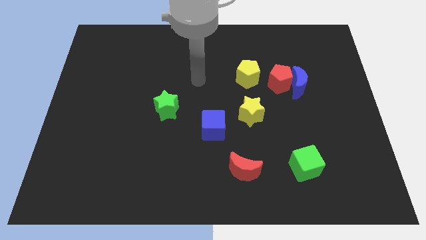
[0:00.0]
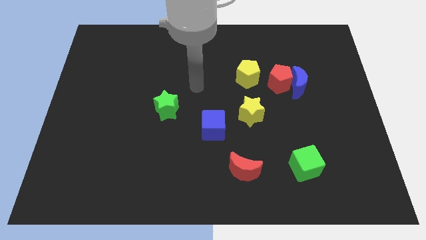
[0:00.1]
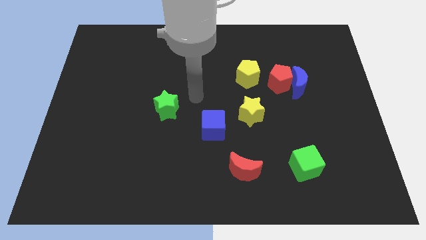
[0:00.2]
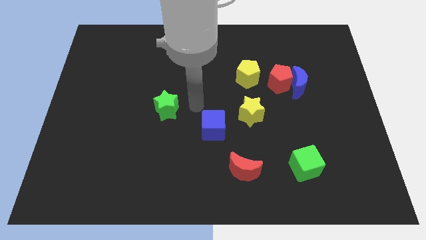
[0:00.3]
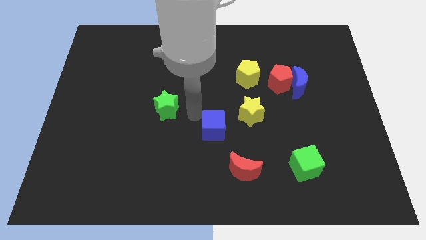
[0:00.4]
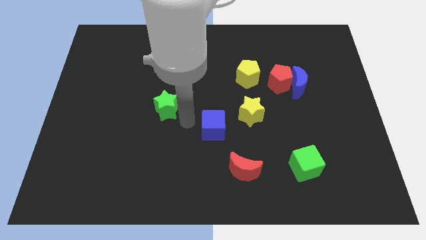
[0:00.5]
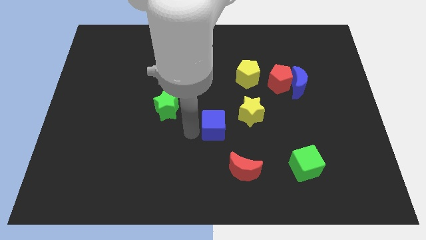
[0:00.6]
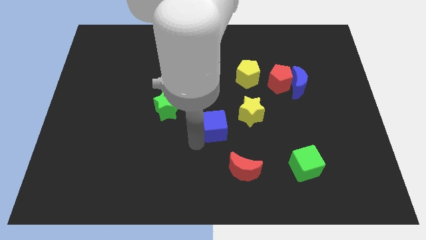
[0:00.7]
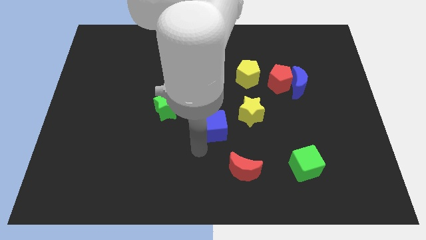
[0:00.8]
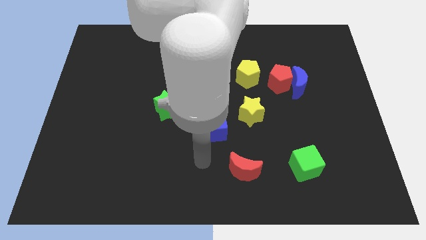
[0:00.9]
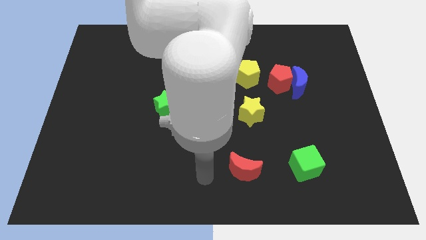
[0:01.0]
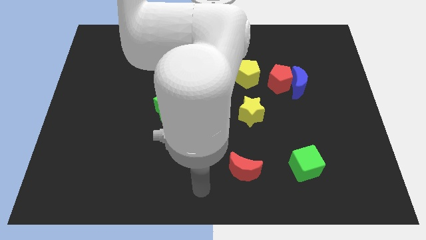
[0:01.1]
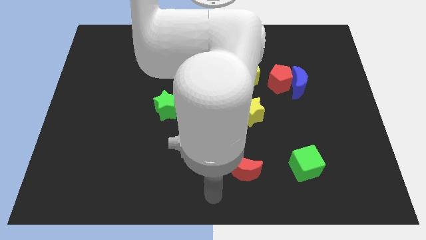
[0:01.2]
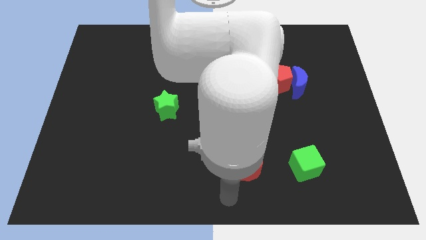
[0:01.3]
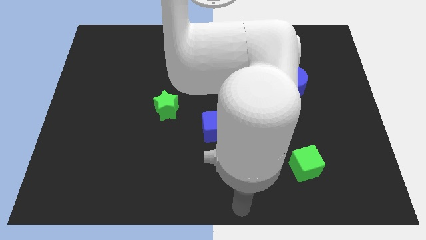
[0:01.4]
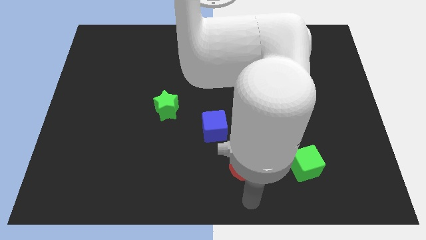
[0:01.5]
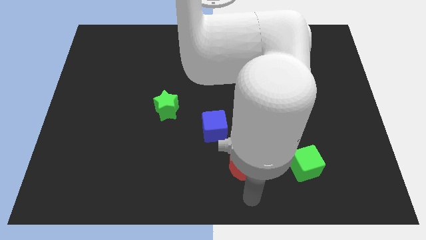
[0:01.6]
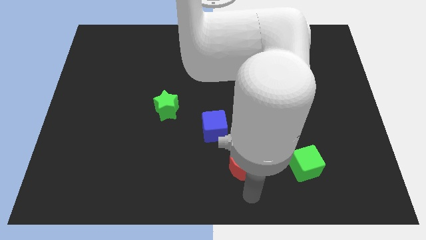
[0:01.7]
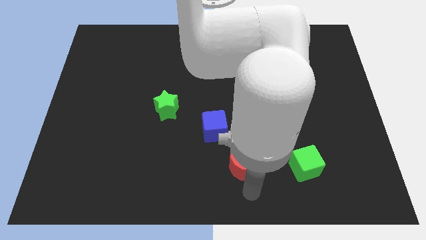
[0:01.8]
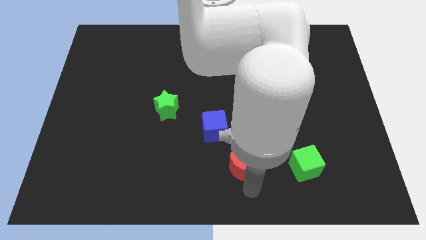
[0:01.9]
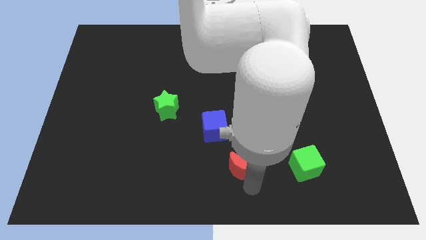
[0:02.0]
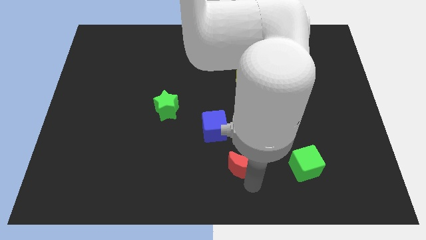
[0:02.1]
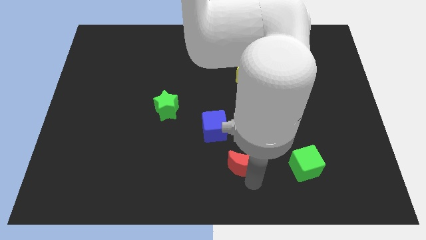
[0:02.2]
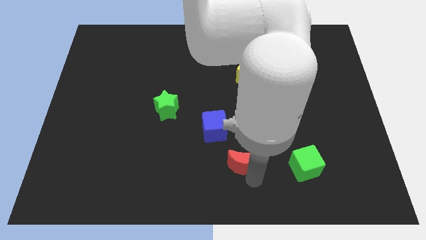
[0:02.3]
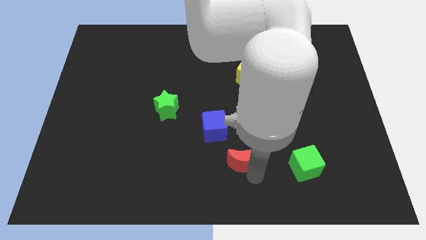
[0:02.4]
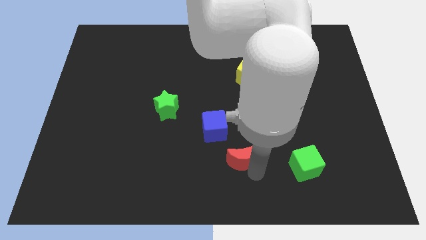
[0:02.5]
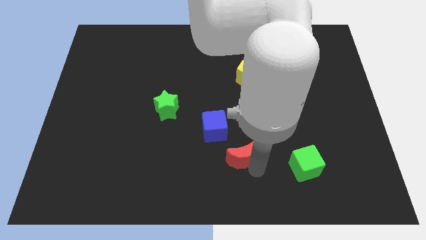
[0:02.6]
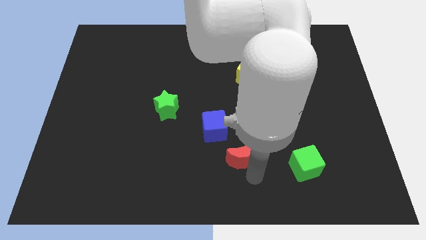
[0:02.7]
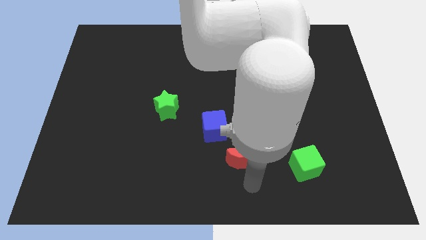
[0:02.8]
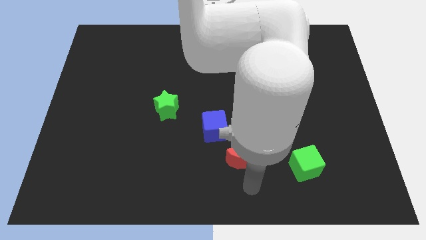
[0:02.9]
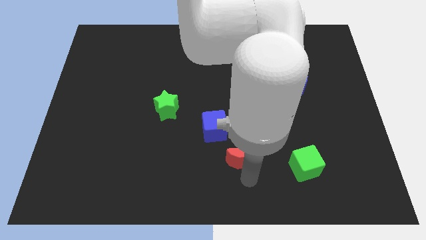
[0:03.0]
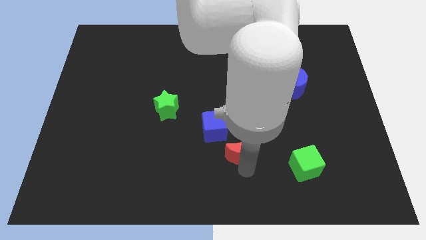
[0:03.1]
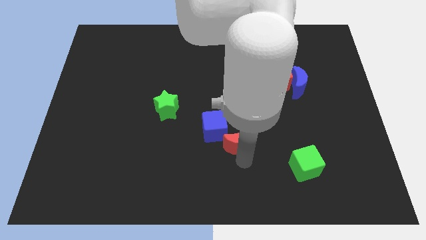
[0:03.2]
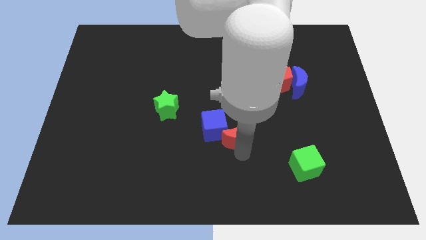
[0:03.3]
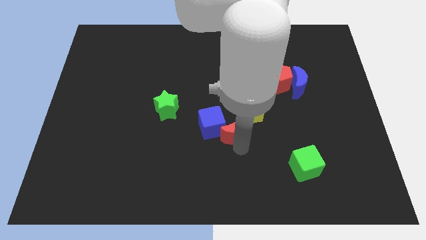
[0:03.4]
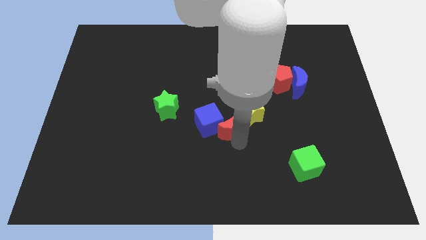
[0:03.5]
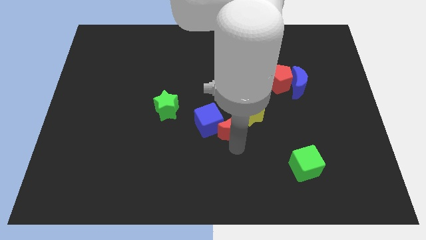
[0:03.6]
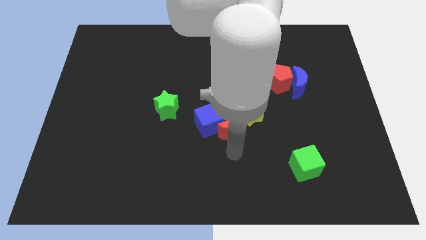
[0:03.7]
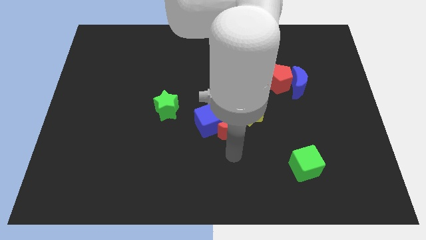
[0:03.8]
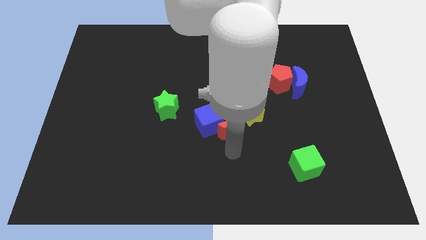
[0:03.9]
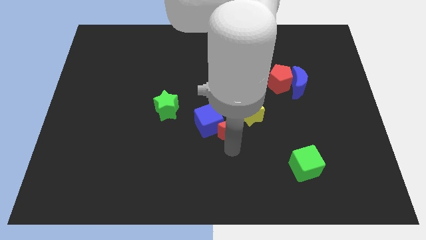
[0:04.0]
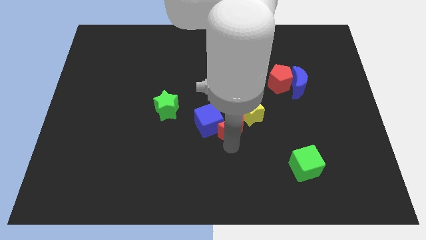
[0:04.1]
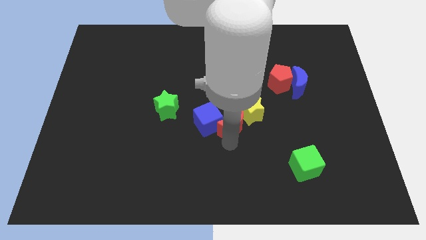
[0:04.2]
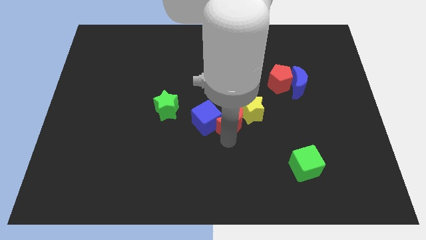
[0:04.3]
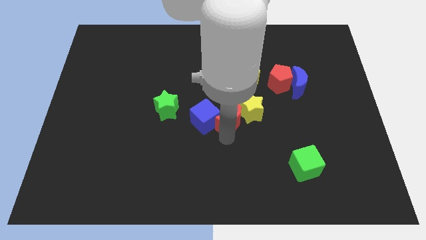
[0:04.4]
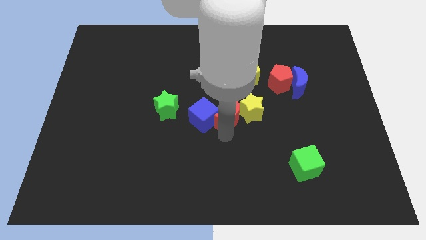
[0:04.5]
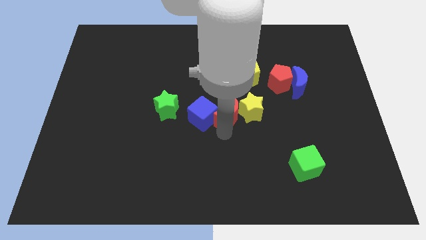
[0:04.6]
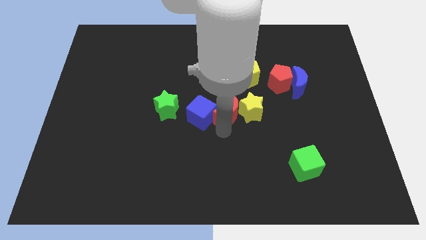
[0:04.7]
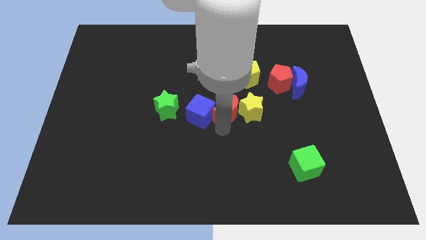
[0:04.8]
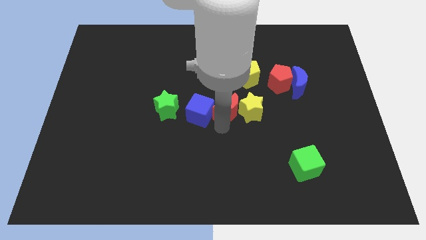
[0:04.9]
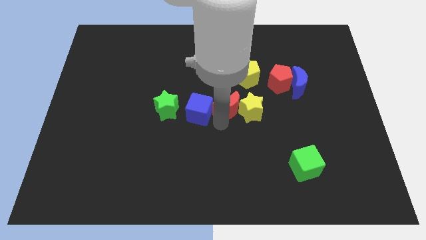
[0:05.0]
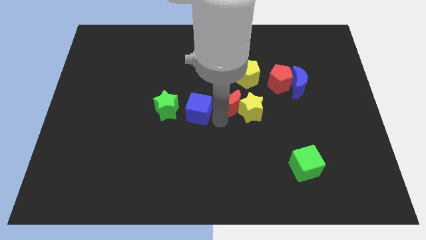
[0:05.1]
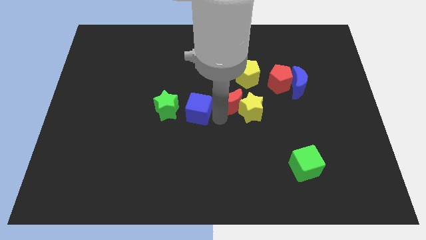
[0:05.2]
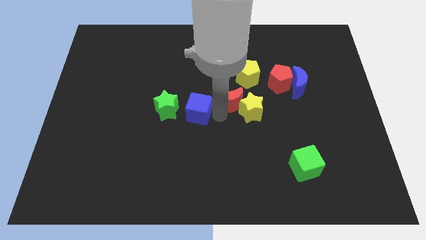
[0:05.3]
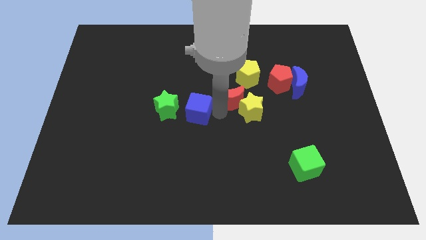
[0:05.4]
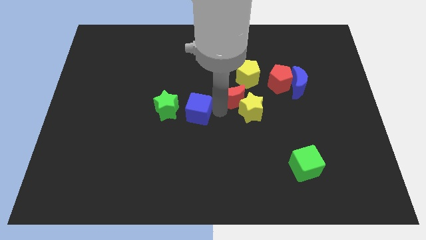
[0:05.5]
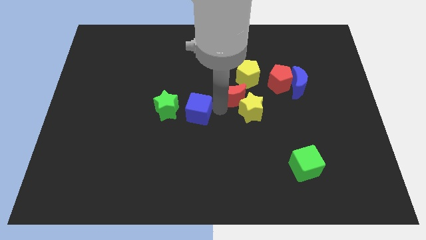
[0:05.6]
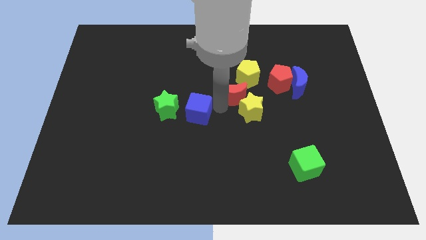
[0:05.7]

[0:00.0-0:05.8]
slide the red moon upwards

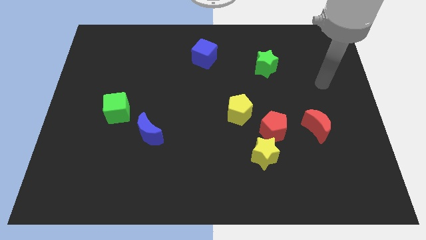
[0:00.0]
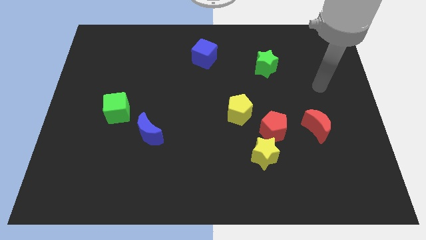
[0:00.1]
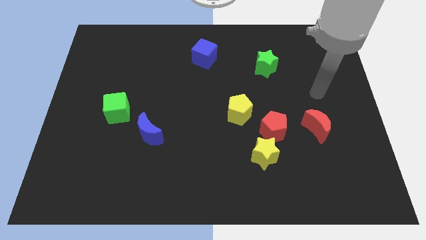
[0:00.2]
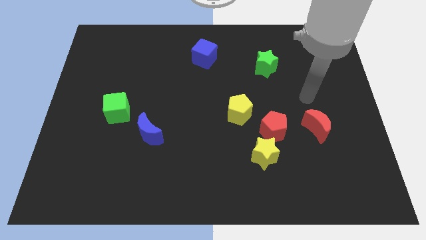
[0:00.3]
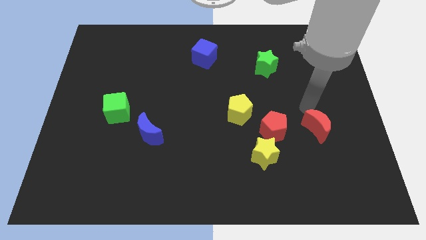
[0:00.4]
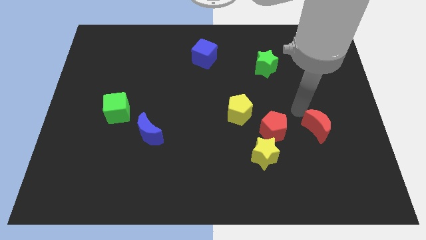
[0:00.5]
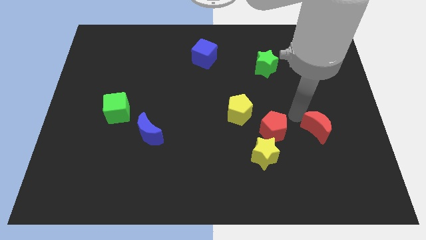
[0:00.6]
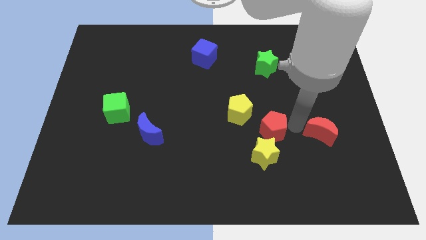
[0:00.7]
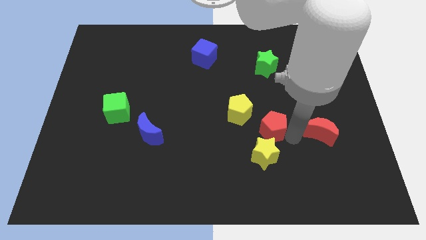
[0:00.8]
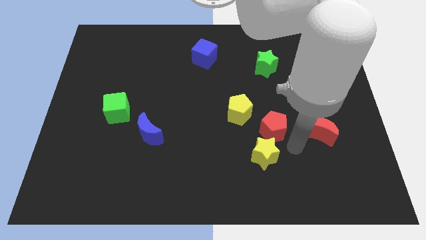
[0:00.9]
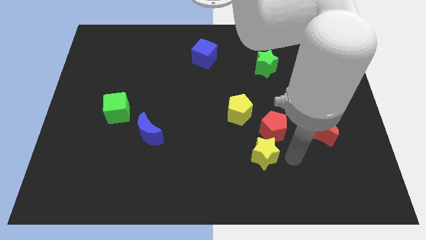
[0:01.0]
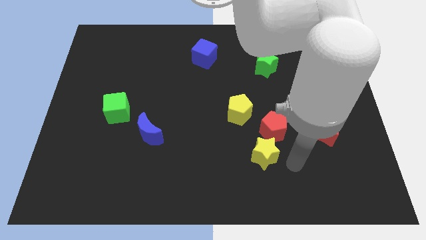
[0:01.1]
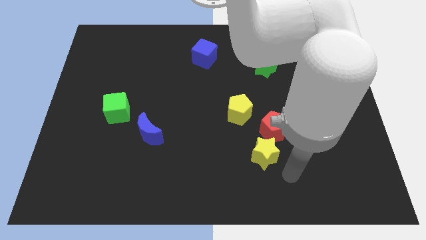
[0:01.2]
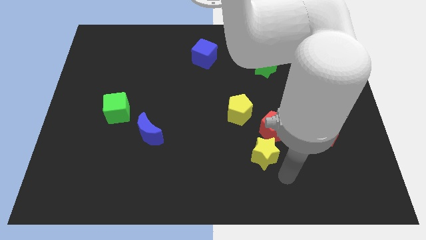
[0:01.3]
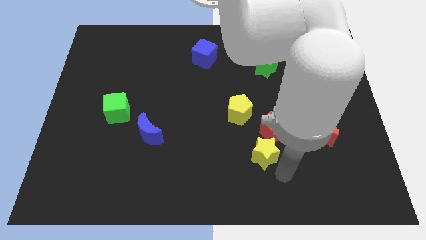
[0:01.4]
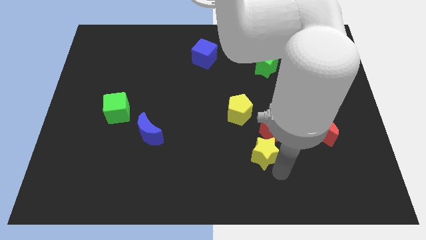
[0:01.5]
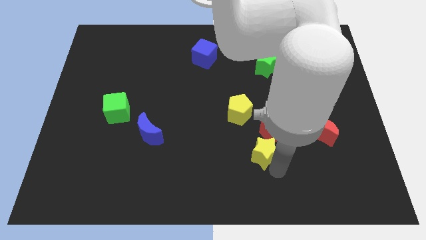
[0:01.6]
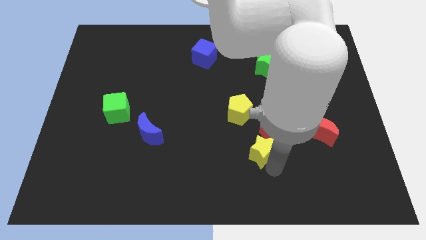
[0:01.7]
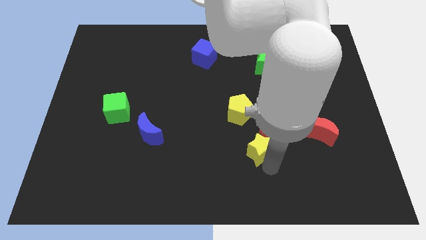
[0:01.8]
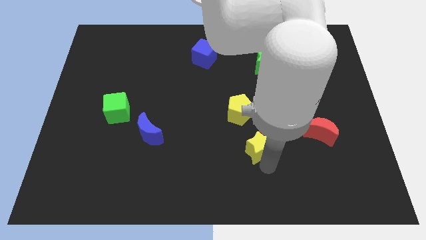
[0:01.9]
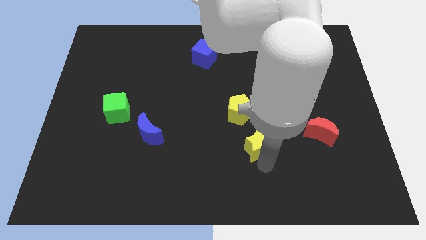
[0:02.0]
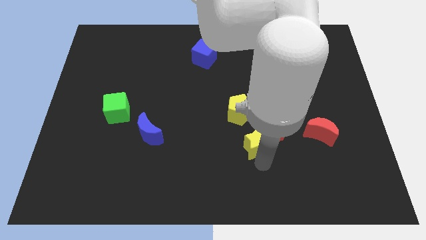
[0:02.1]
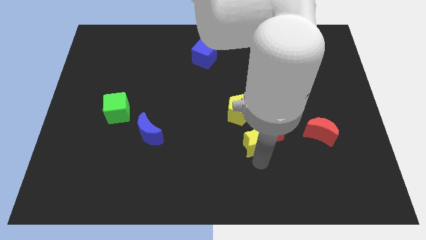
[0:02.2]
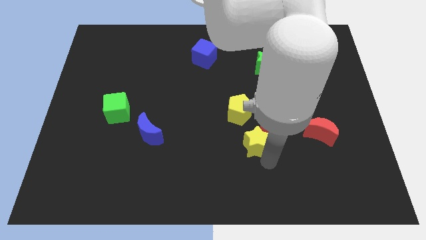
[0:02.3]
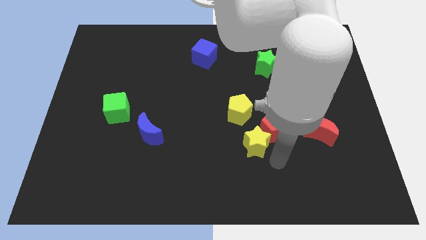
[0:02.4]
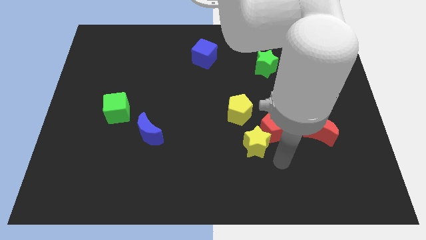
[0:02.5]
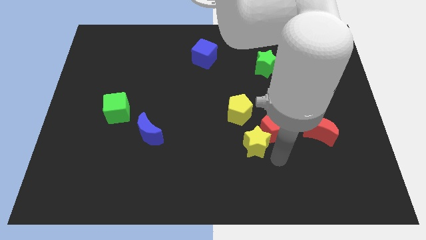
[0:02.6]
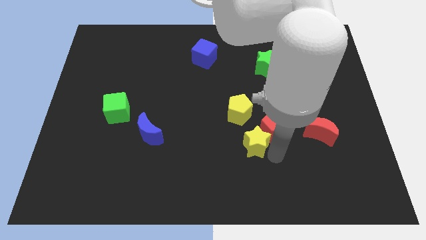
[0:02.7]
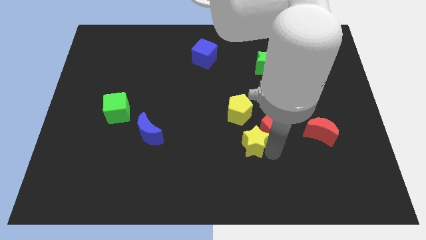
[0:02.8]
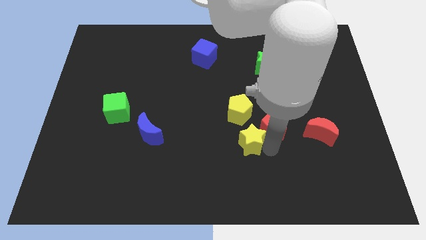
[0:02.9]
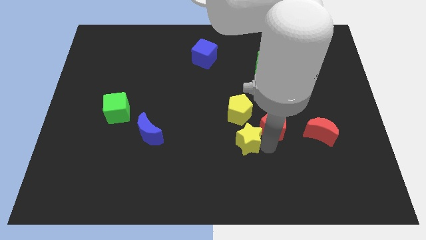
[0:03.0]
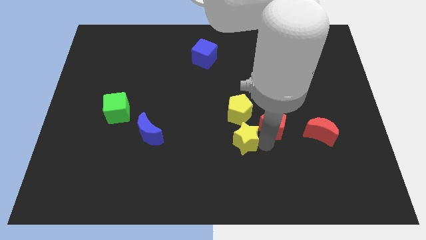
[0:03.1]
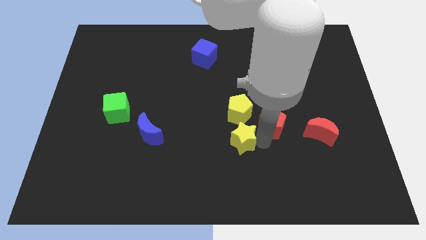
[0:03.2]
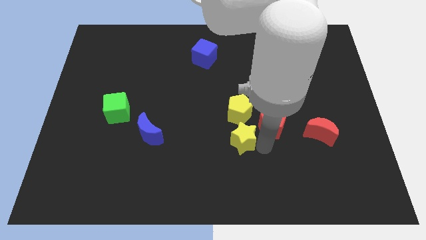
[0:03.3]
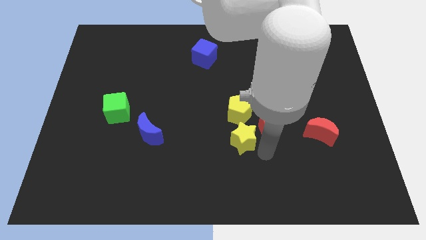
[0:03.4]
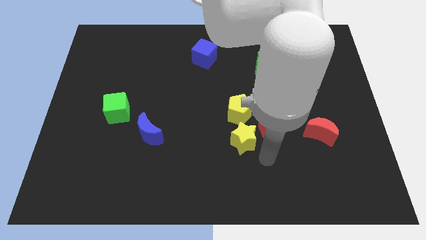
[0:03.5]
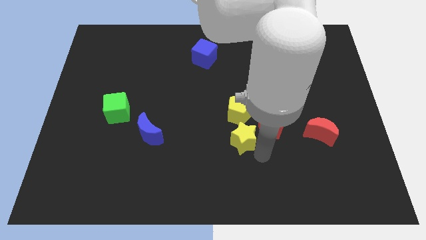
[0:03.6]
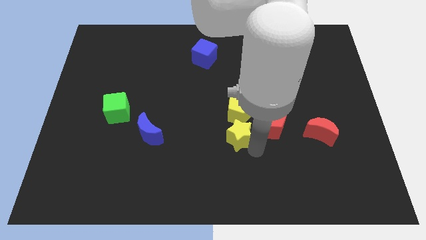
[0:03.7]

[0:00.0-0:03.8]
push the yellow star a bit upwards and left
